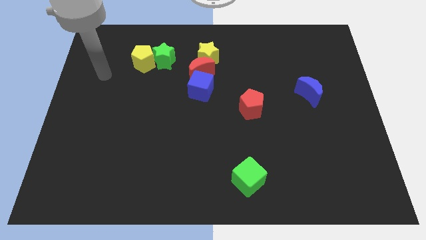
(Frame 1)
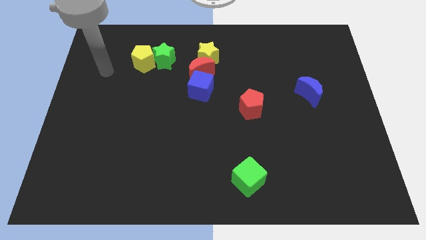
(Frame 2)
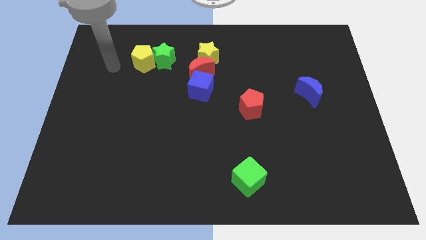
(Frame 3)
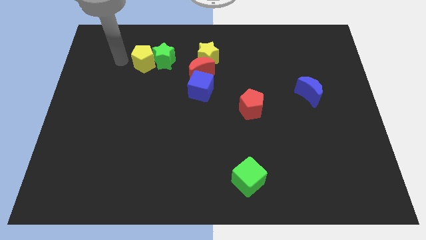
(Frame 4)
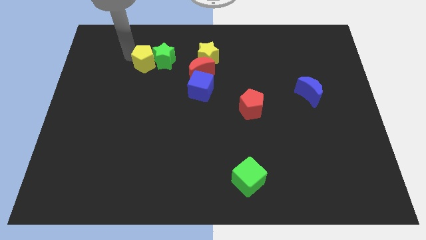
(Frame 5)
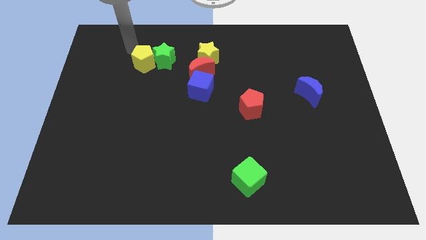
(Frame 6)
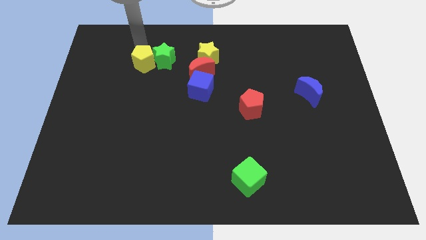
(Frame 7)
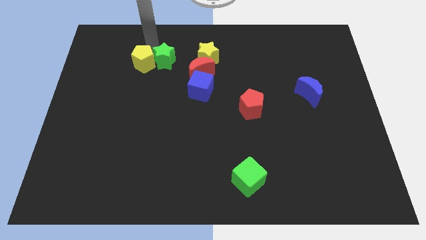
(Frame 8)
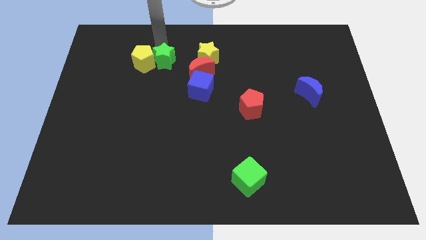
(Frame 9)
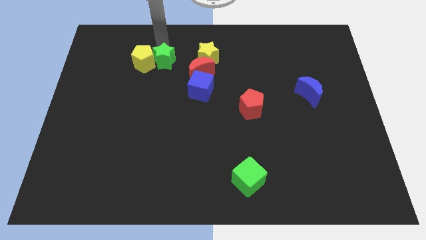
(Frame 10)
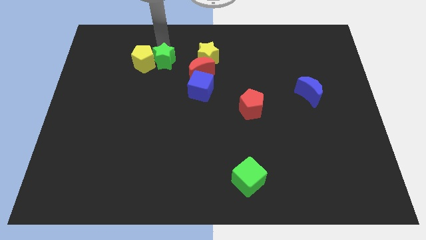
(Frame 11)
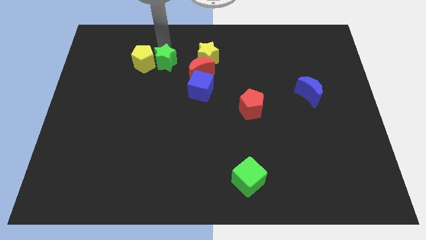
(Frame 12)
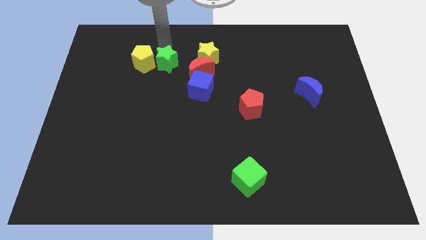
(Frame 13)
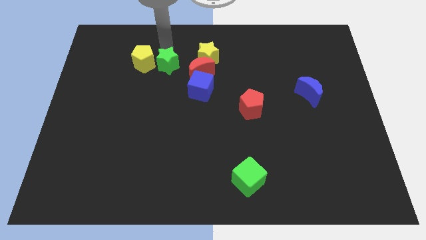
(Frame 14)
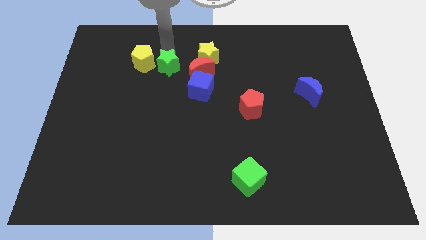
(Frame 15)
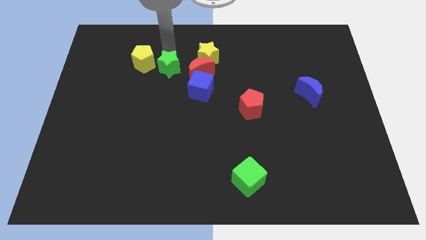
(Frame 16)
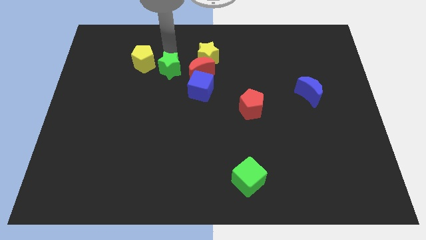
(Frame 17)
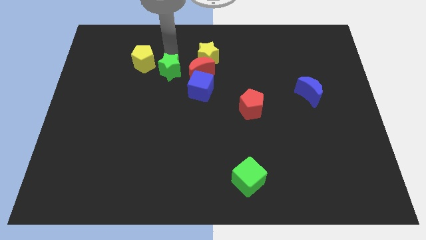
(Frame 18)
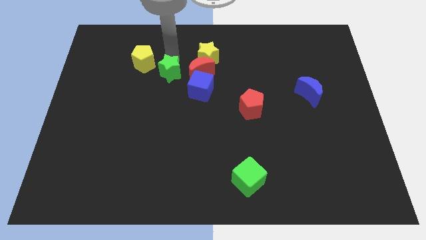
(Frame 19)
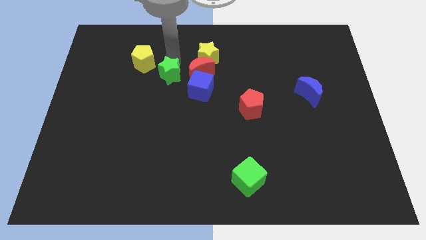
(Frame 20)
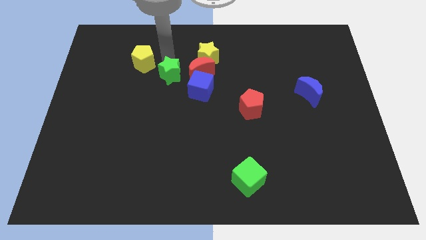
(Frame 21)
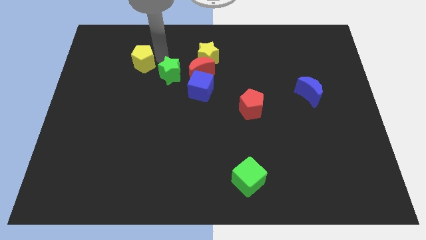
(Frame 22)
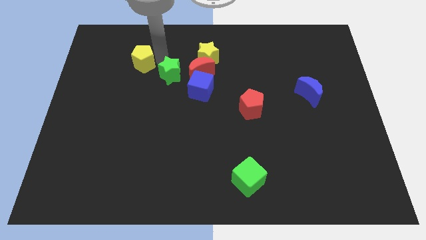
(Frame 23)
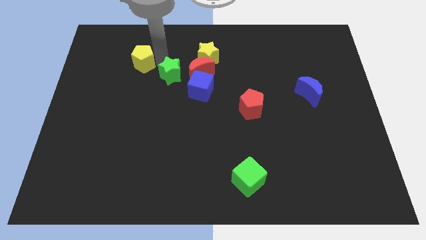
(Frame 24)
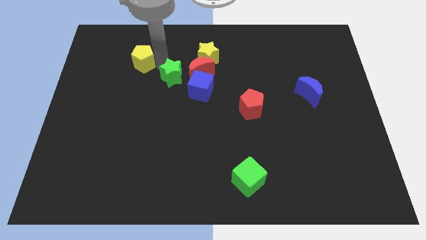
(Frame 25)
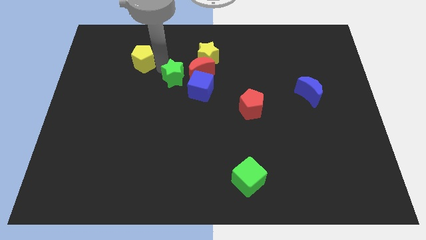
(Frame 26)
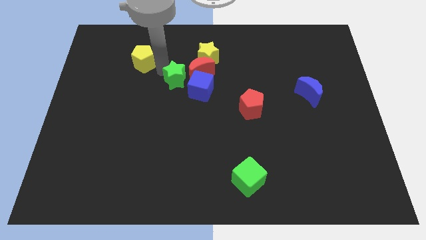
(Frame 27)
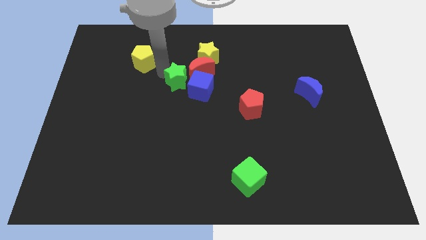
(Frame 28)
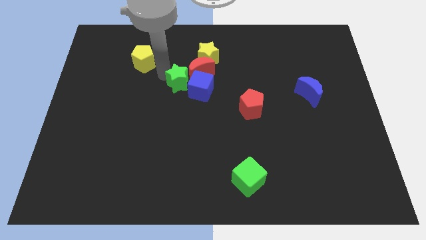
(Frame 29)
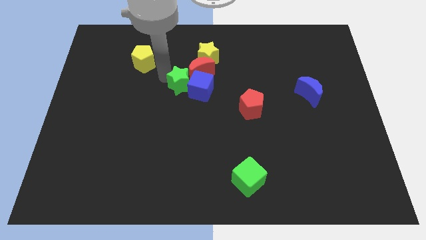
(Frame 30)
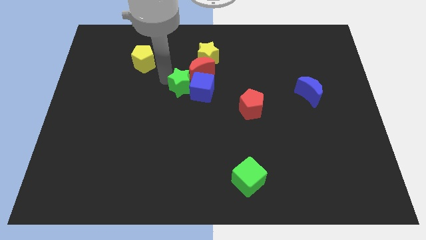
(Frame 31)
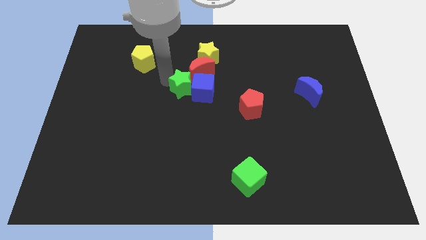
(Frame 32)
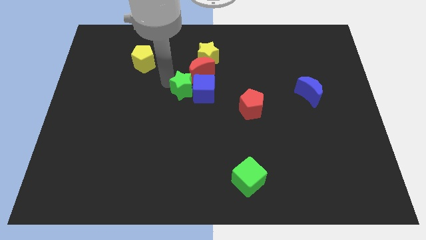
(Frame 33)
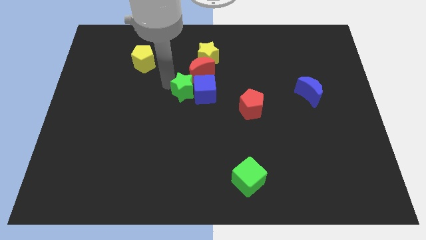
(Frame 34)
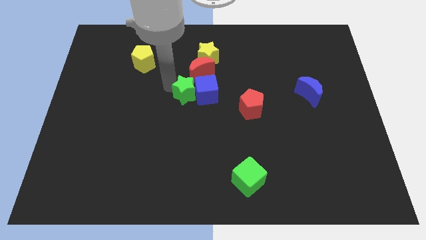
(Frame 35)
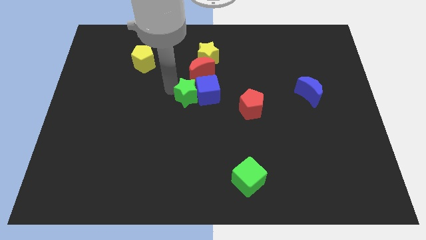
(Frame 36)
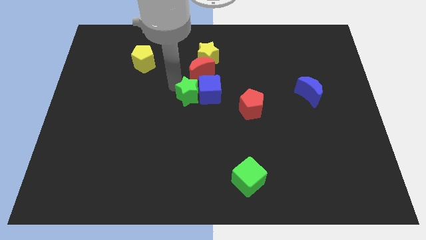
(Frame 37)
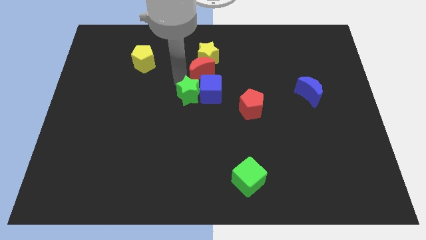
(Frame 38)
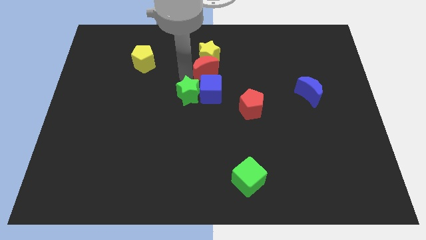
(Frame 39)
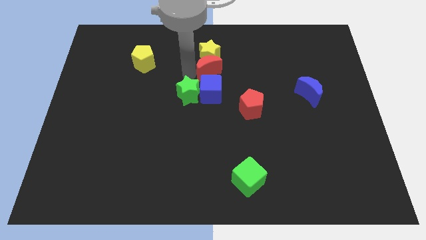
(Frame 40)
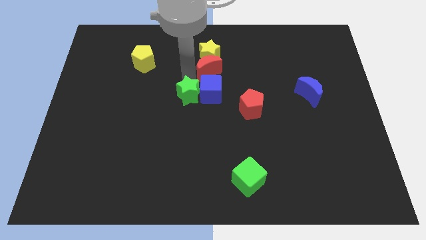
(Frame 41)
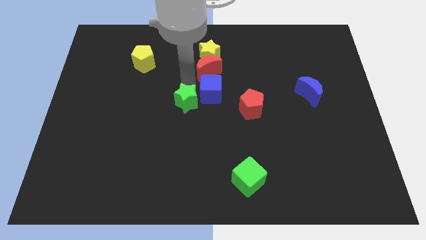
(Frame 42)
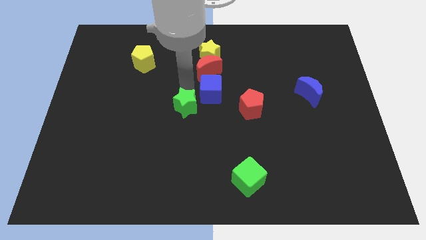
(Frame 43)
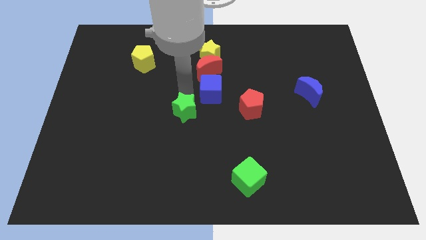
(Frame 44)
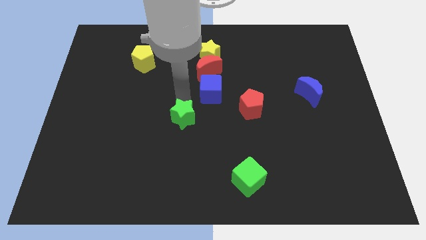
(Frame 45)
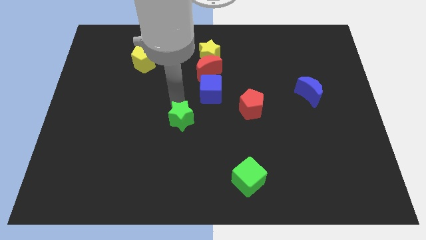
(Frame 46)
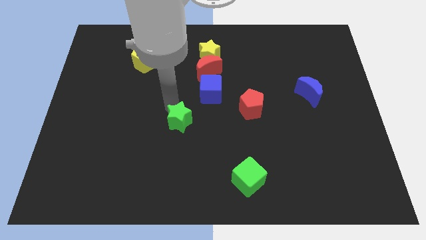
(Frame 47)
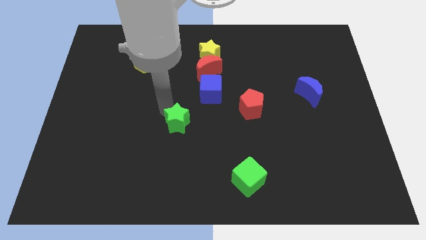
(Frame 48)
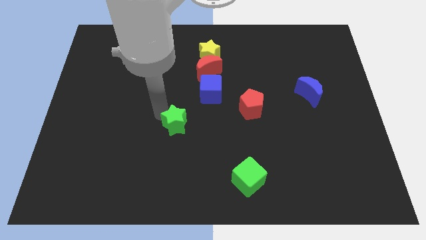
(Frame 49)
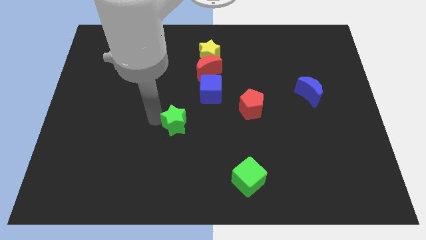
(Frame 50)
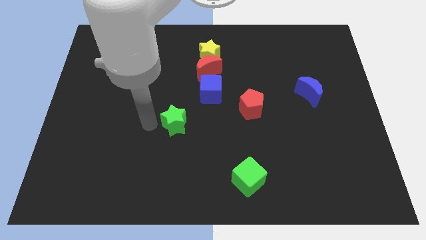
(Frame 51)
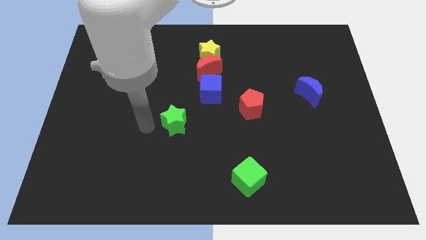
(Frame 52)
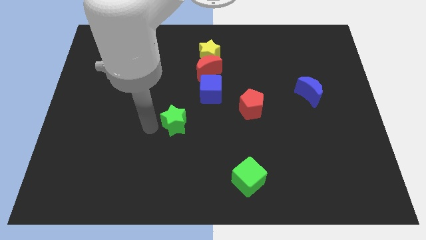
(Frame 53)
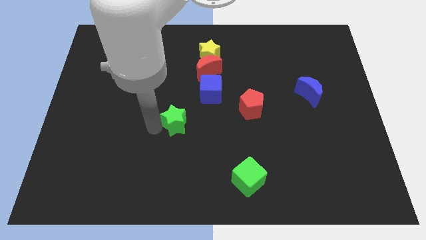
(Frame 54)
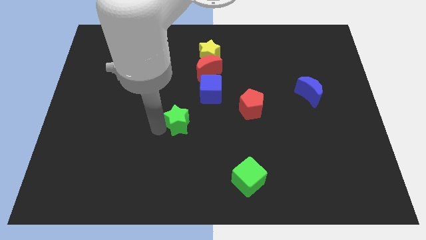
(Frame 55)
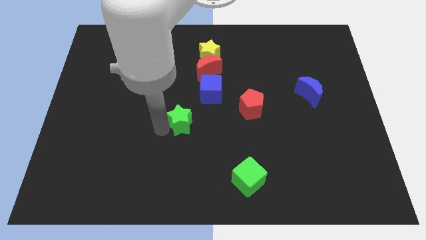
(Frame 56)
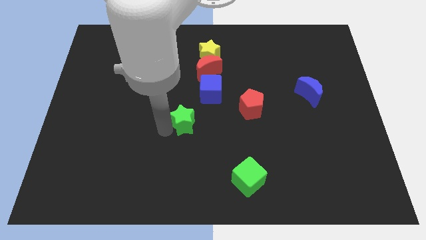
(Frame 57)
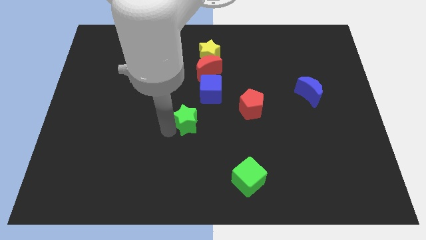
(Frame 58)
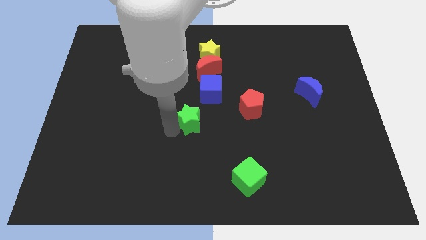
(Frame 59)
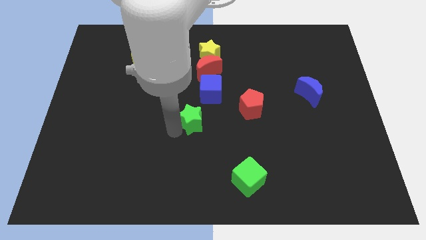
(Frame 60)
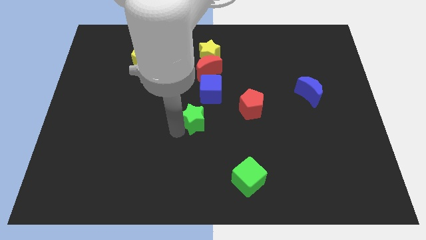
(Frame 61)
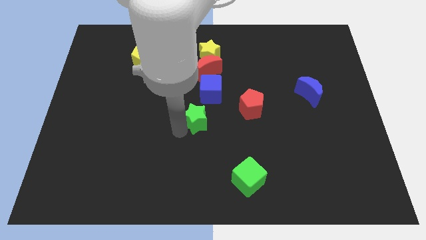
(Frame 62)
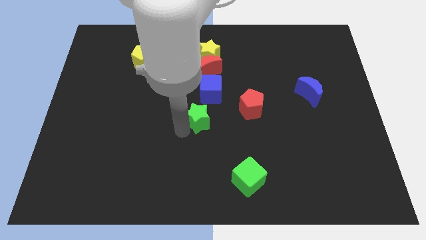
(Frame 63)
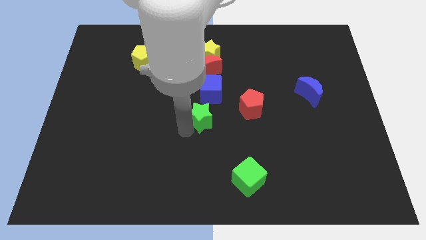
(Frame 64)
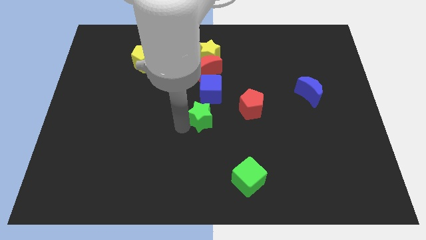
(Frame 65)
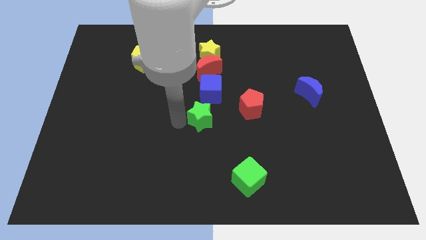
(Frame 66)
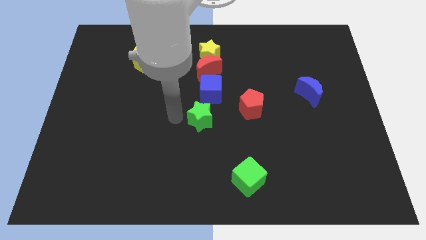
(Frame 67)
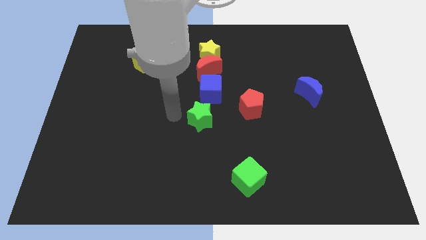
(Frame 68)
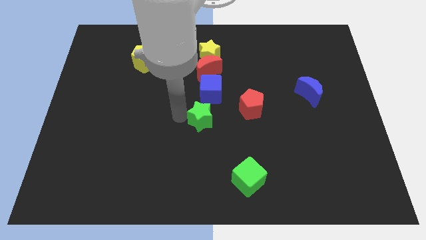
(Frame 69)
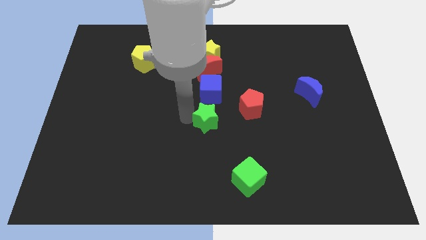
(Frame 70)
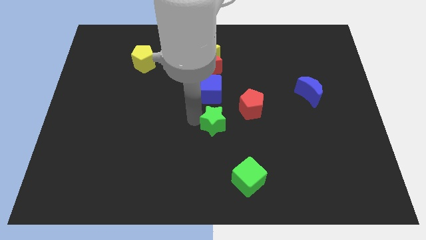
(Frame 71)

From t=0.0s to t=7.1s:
move the green star diagonally down and to the left of the red pentagon

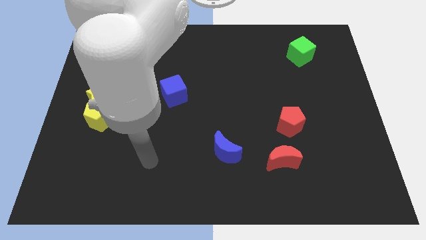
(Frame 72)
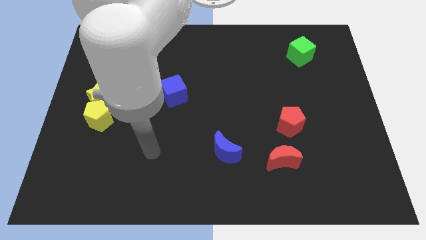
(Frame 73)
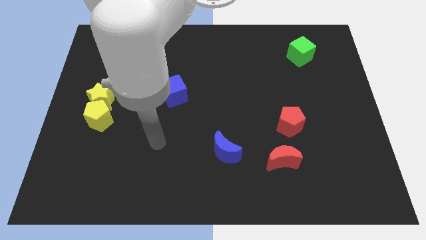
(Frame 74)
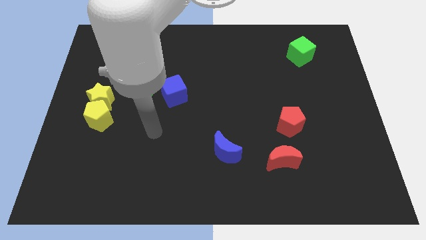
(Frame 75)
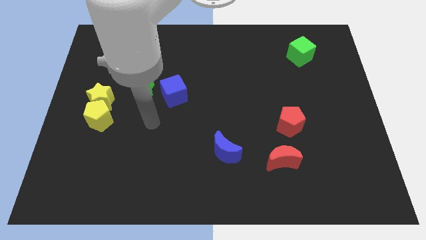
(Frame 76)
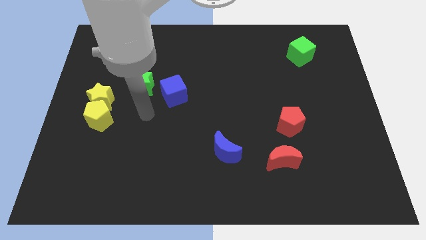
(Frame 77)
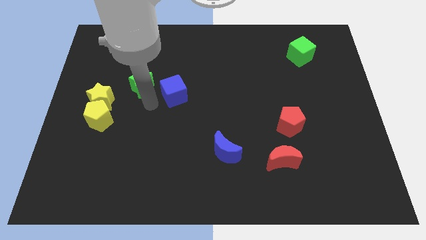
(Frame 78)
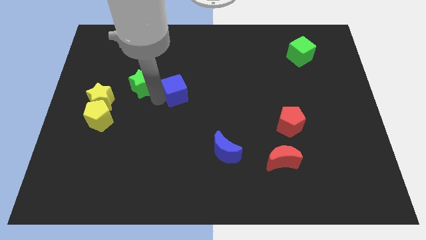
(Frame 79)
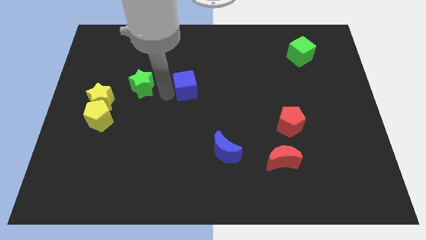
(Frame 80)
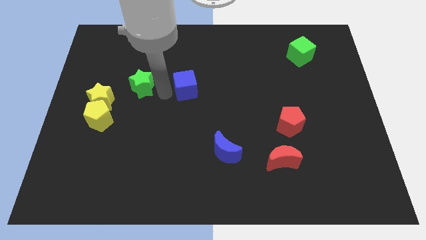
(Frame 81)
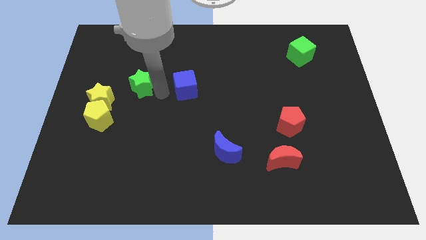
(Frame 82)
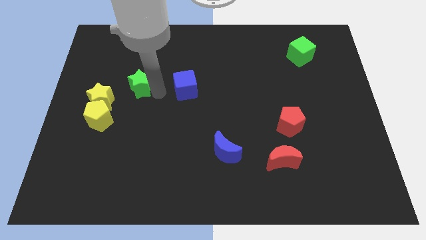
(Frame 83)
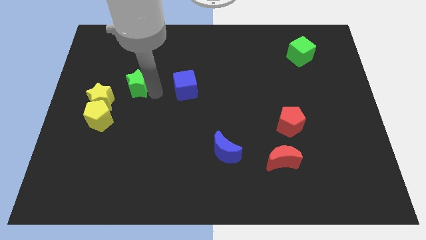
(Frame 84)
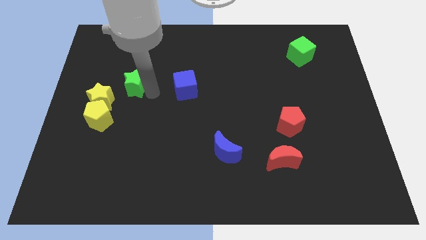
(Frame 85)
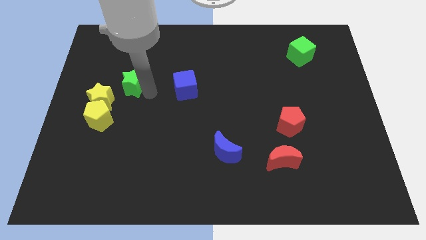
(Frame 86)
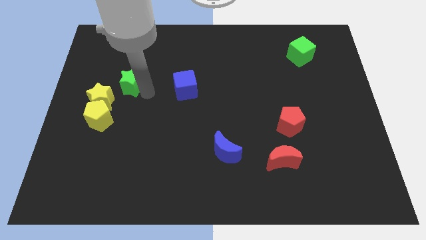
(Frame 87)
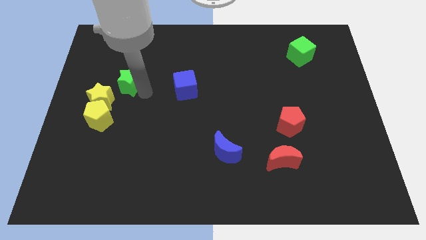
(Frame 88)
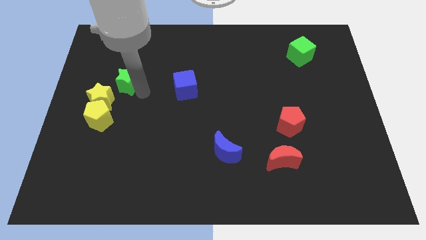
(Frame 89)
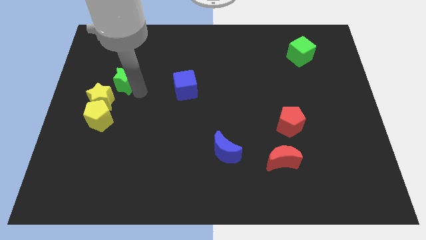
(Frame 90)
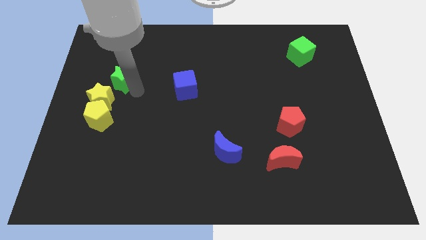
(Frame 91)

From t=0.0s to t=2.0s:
move the green star above the yellow star
